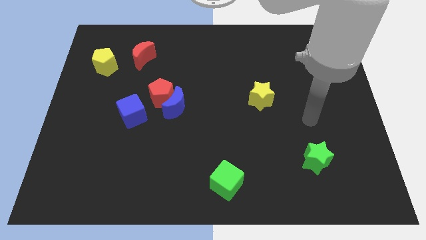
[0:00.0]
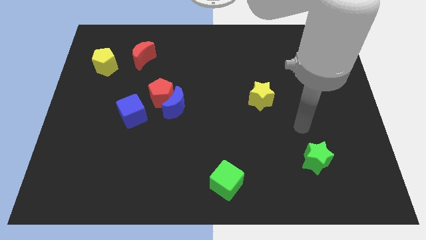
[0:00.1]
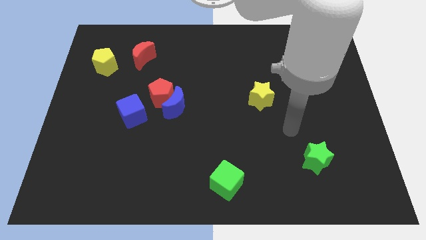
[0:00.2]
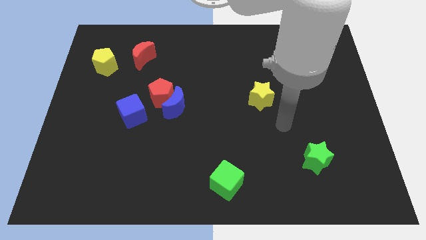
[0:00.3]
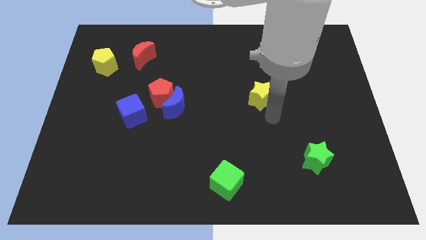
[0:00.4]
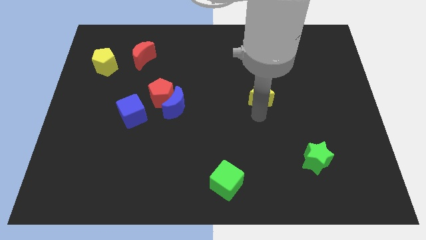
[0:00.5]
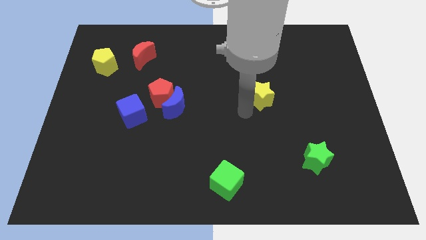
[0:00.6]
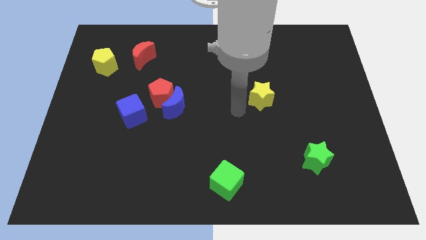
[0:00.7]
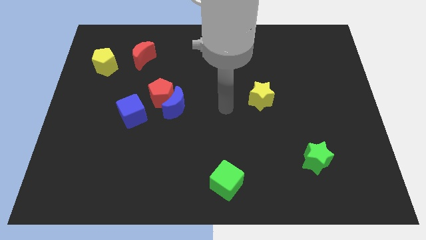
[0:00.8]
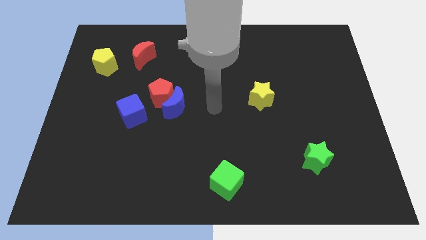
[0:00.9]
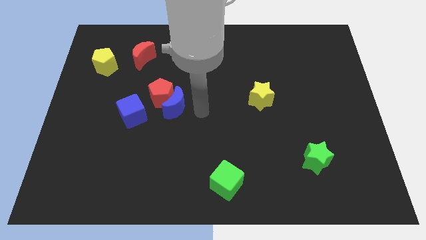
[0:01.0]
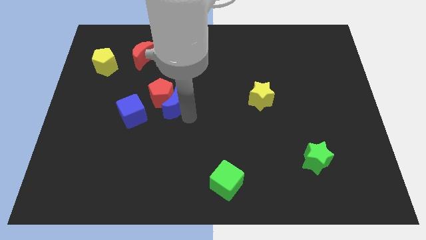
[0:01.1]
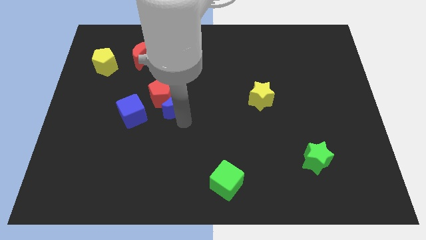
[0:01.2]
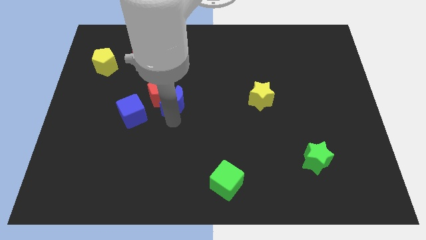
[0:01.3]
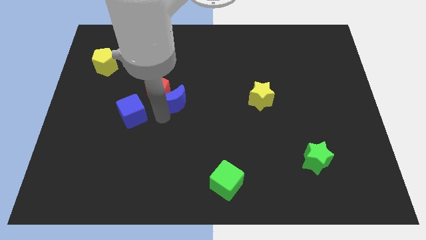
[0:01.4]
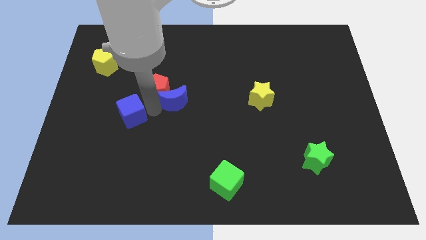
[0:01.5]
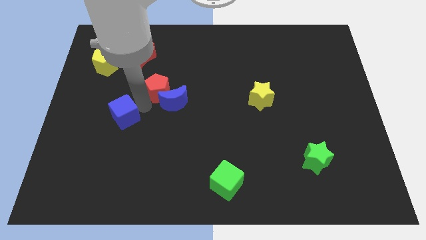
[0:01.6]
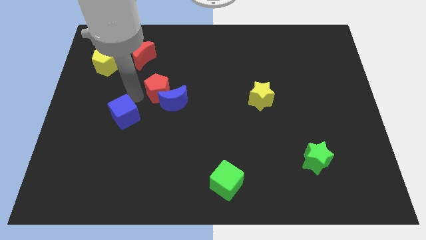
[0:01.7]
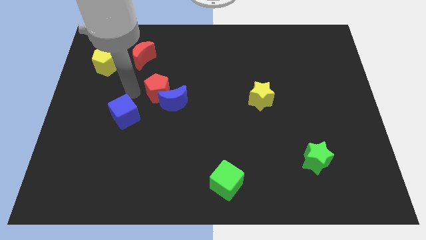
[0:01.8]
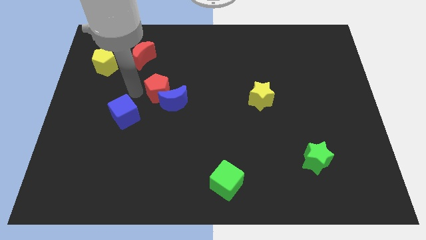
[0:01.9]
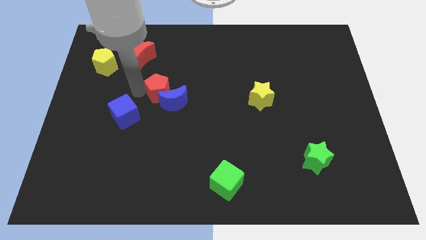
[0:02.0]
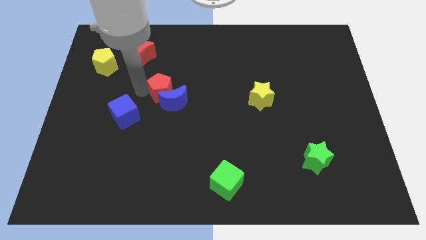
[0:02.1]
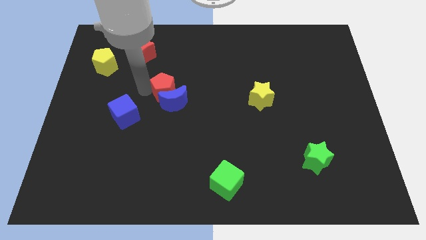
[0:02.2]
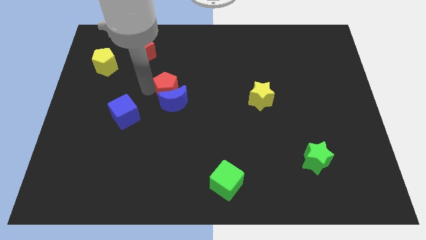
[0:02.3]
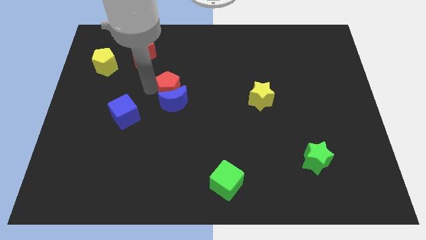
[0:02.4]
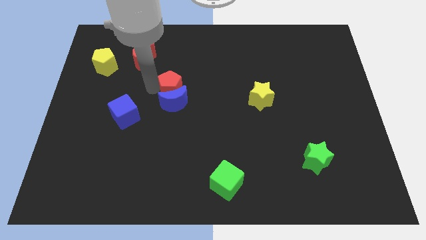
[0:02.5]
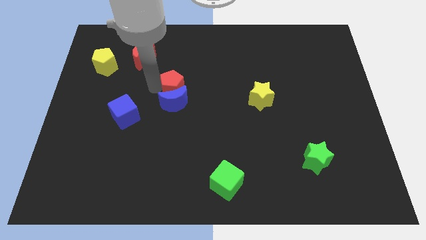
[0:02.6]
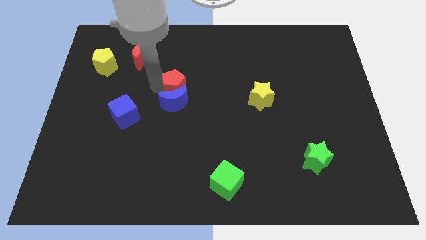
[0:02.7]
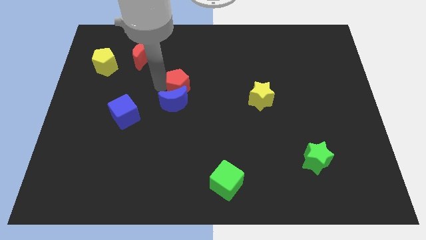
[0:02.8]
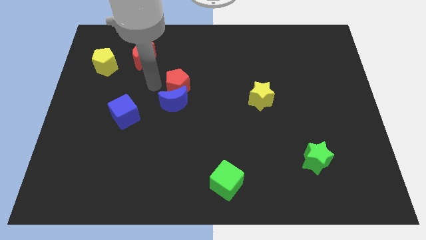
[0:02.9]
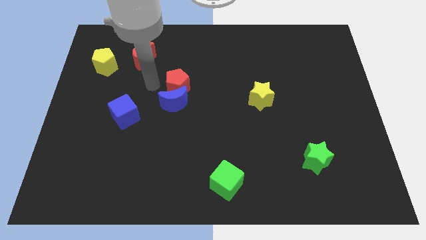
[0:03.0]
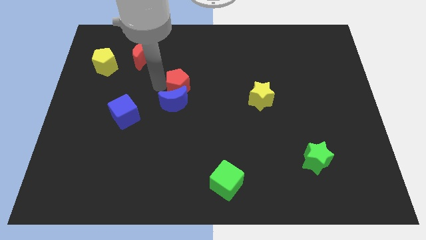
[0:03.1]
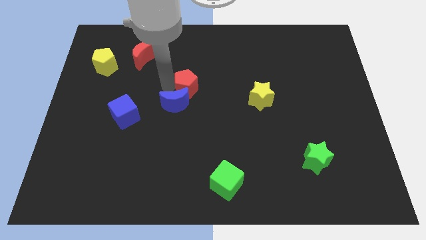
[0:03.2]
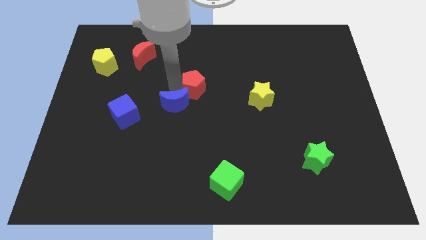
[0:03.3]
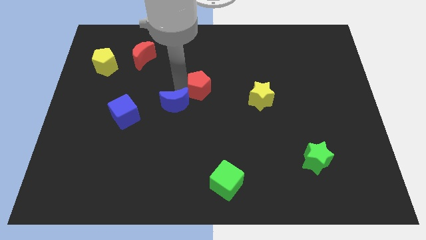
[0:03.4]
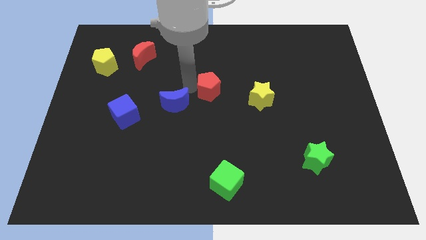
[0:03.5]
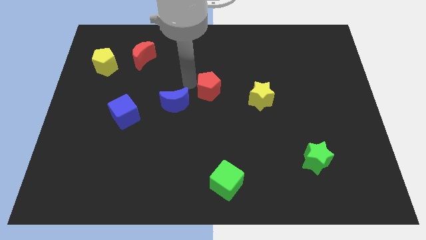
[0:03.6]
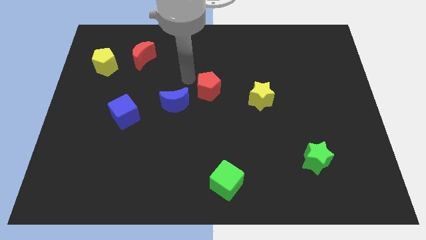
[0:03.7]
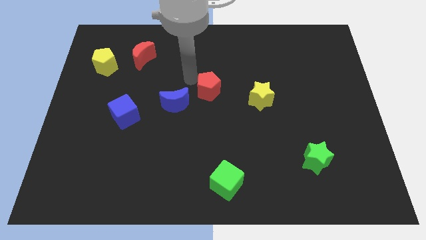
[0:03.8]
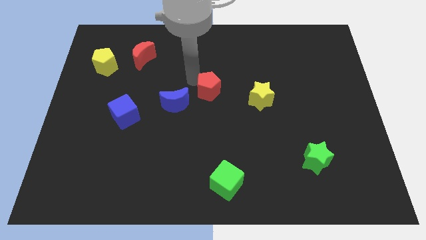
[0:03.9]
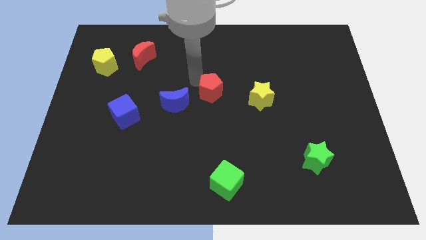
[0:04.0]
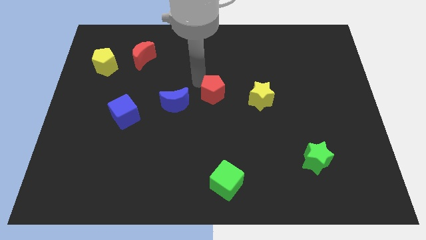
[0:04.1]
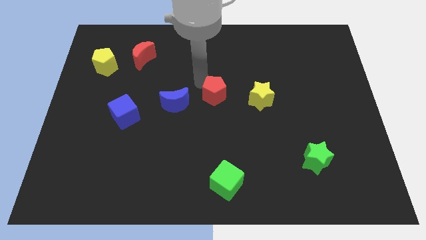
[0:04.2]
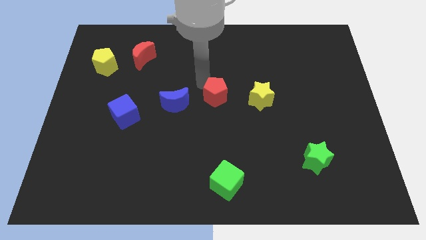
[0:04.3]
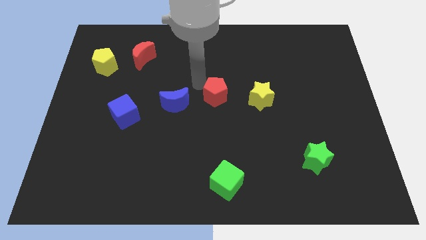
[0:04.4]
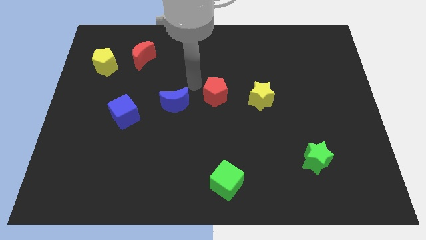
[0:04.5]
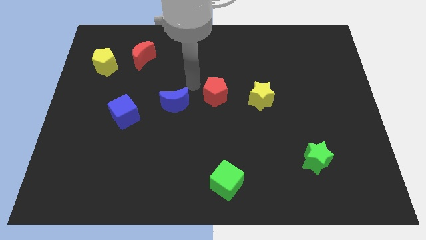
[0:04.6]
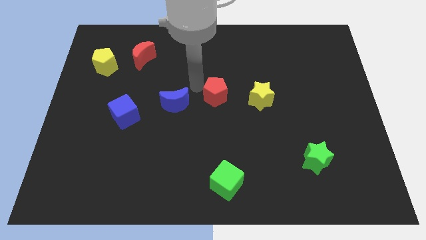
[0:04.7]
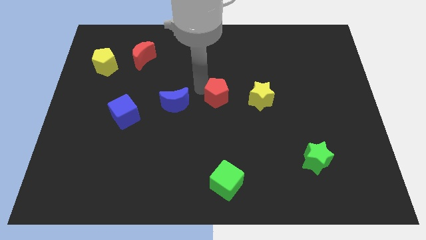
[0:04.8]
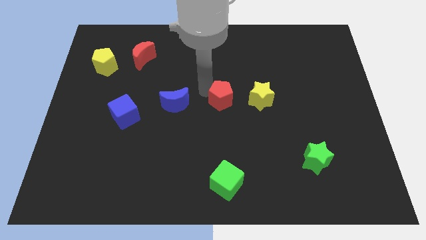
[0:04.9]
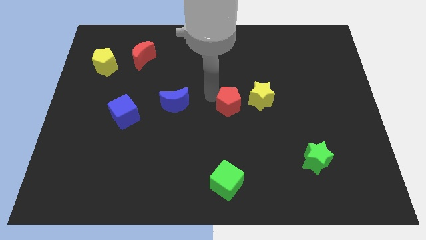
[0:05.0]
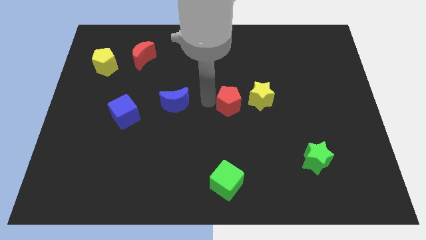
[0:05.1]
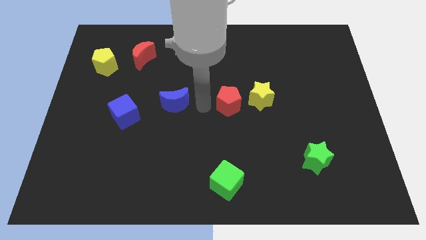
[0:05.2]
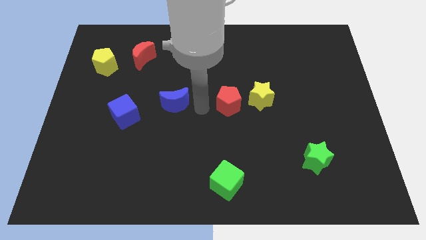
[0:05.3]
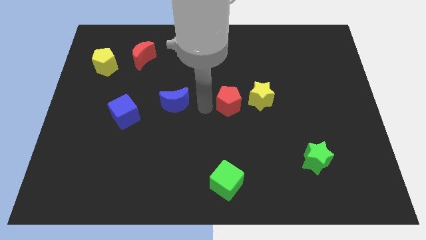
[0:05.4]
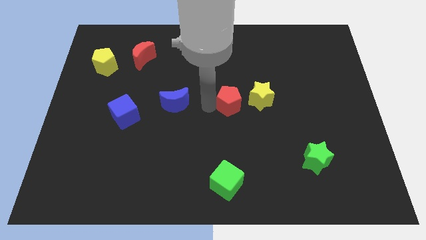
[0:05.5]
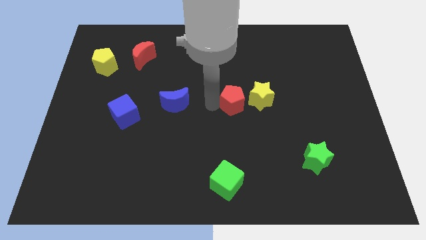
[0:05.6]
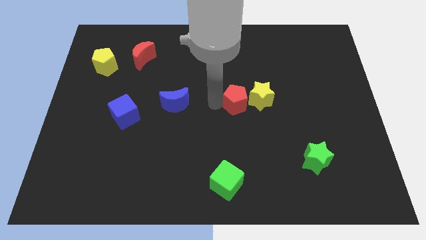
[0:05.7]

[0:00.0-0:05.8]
move the red pentagon towards the yellow star

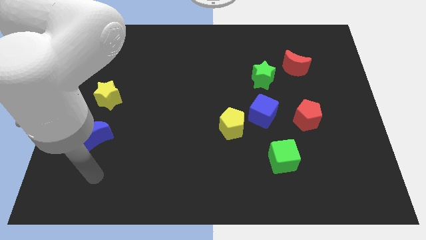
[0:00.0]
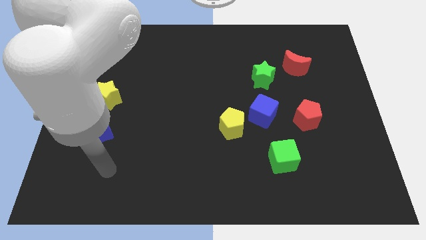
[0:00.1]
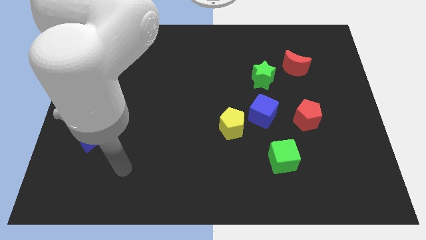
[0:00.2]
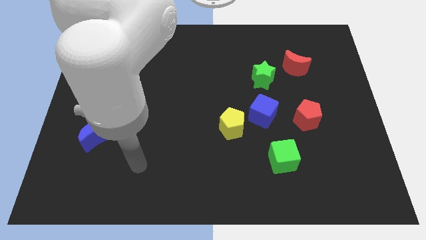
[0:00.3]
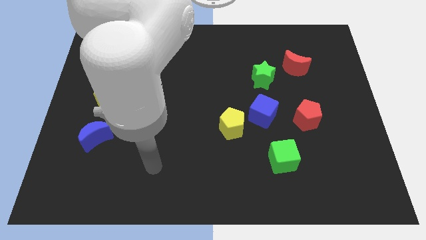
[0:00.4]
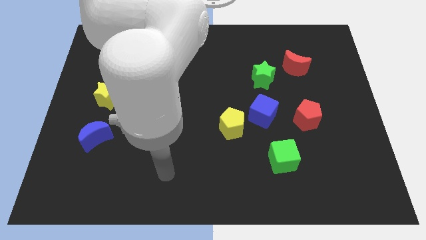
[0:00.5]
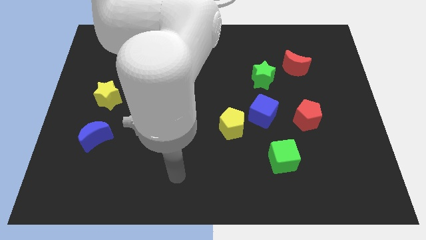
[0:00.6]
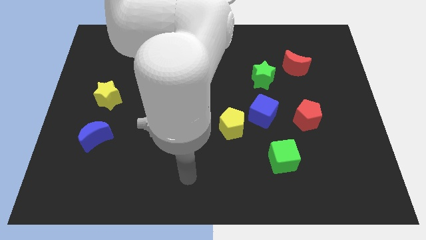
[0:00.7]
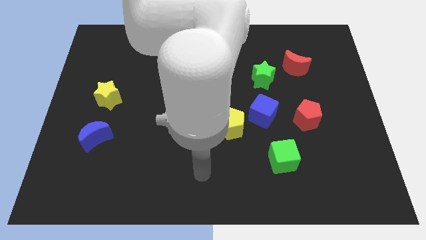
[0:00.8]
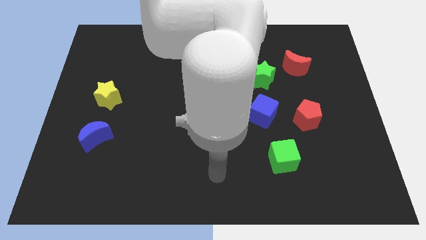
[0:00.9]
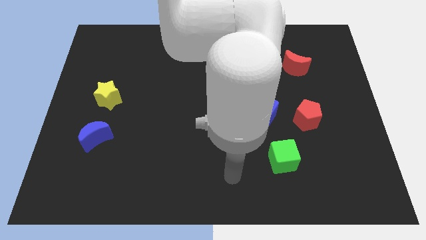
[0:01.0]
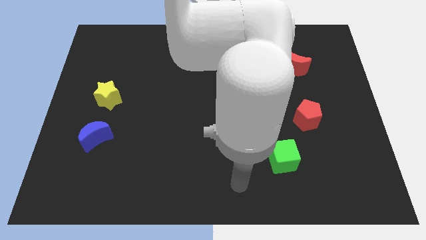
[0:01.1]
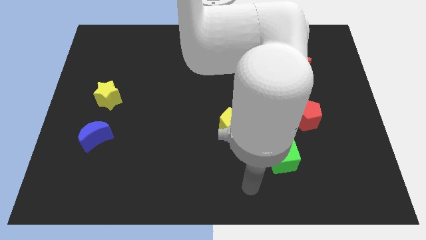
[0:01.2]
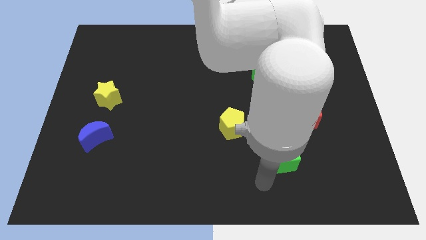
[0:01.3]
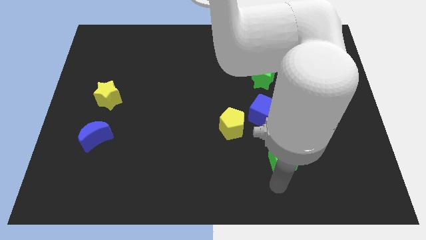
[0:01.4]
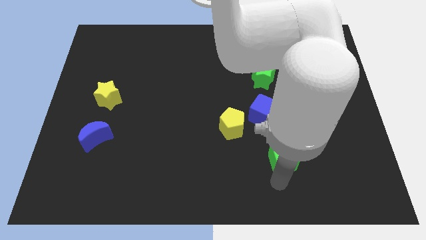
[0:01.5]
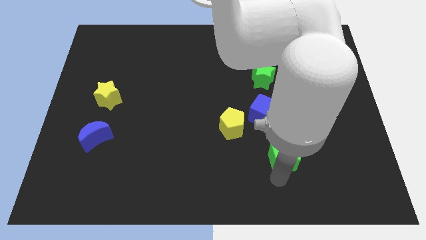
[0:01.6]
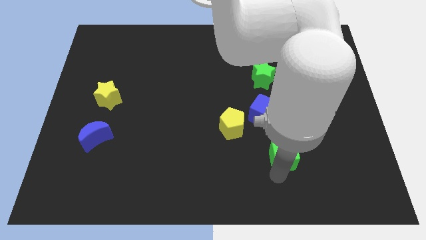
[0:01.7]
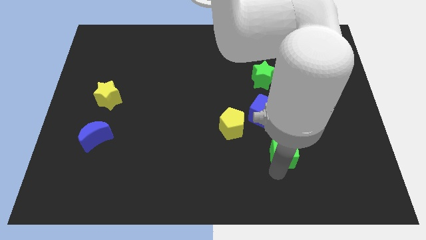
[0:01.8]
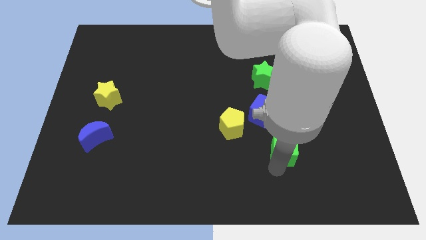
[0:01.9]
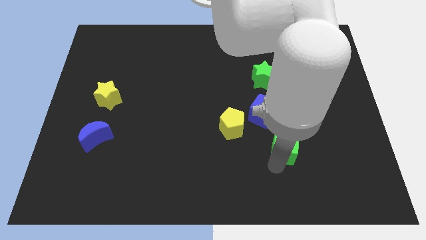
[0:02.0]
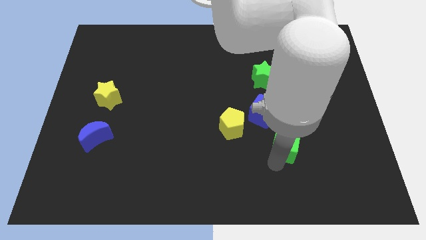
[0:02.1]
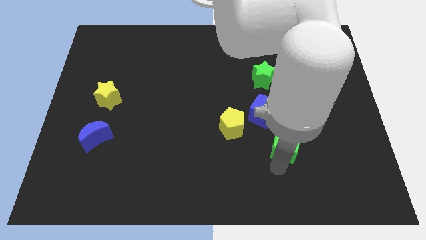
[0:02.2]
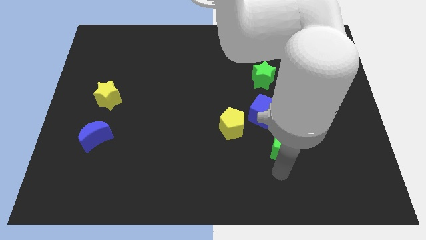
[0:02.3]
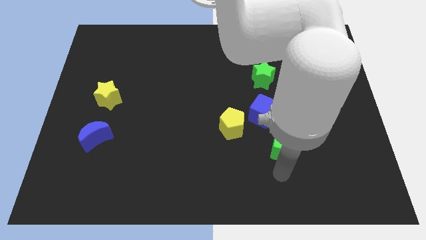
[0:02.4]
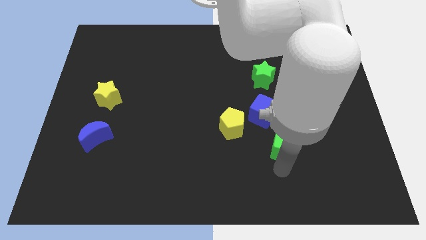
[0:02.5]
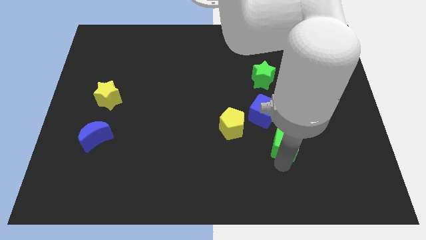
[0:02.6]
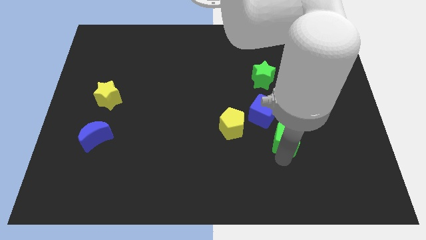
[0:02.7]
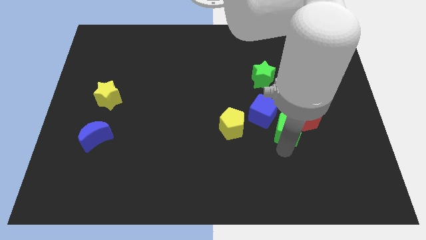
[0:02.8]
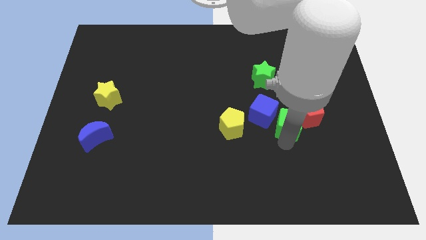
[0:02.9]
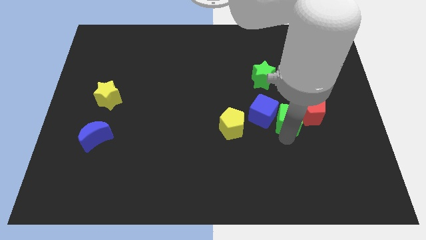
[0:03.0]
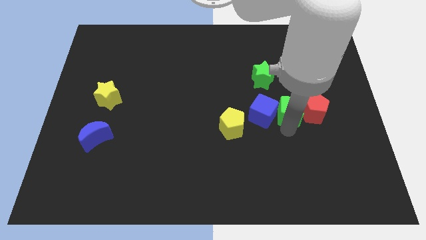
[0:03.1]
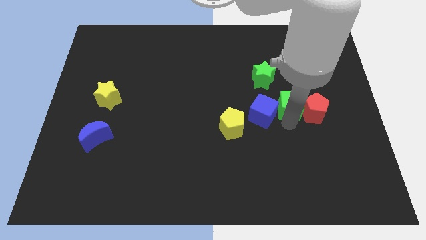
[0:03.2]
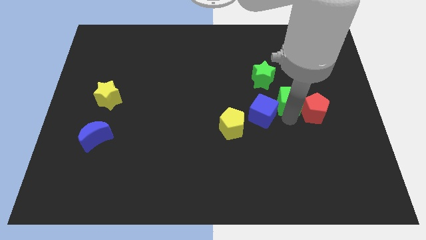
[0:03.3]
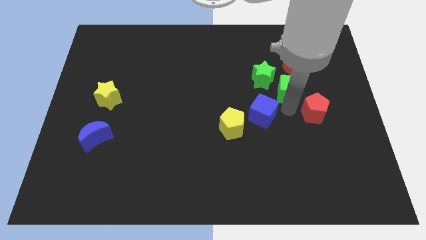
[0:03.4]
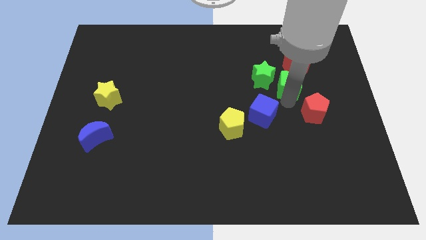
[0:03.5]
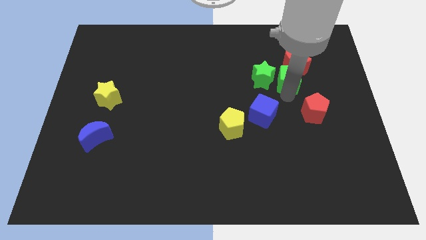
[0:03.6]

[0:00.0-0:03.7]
slide the green cube towards the red moon
